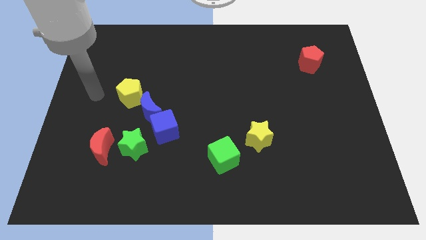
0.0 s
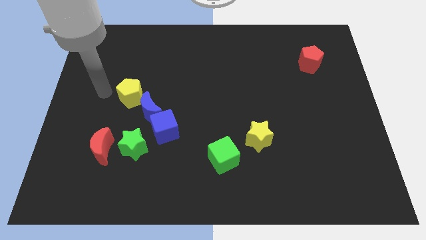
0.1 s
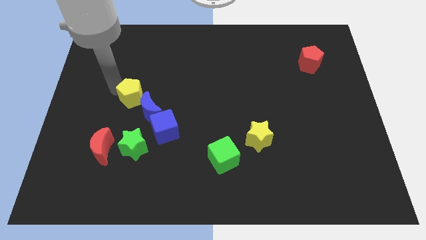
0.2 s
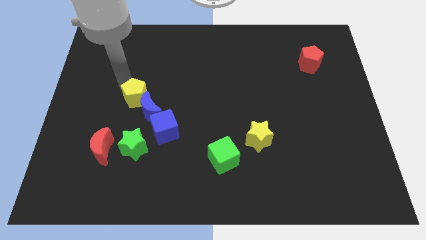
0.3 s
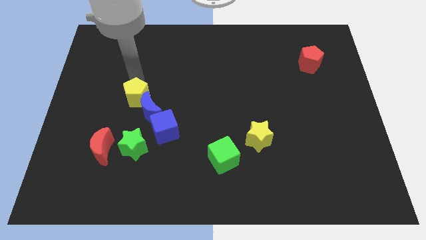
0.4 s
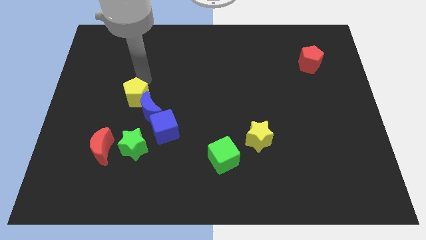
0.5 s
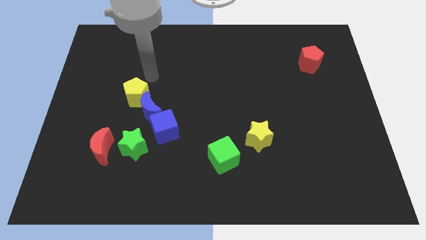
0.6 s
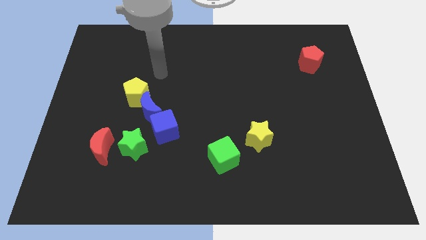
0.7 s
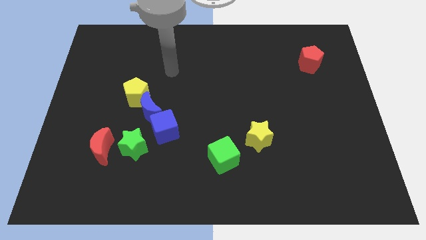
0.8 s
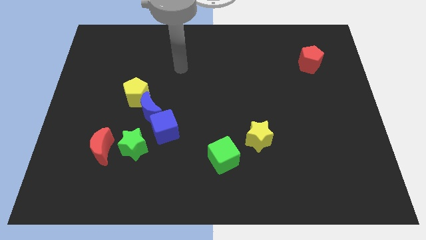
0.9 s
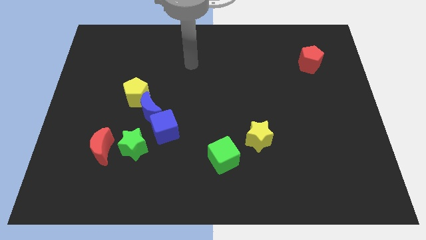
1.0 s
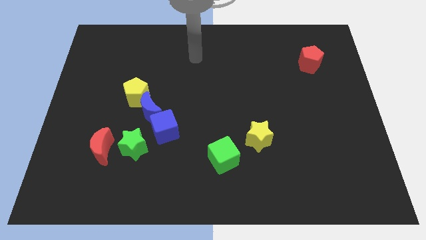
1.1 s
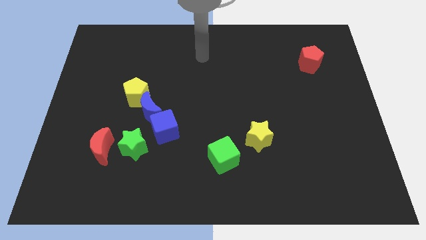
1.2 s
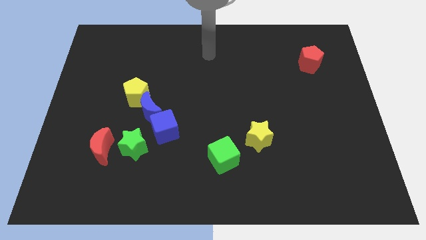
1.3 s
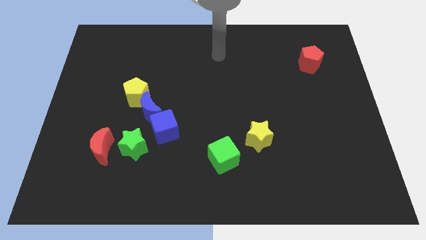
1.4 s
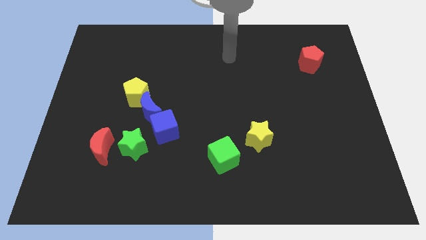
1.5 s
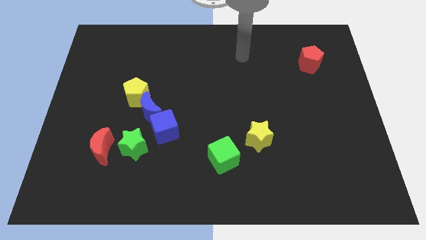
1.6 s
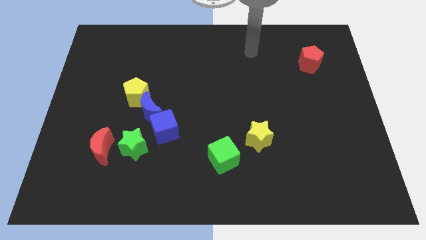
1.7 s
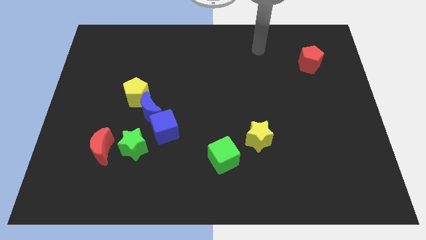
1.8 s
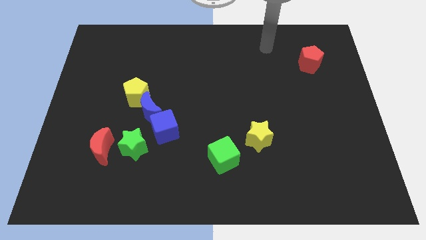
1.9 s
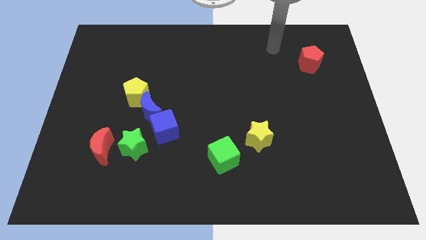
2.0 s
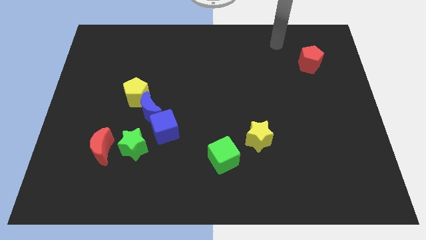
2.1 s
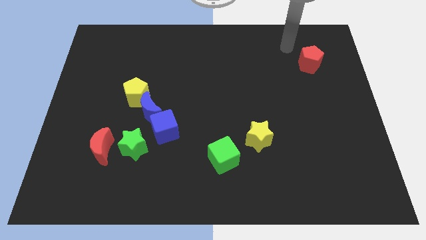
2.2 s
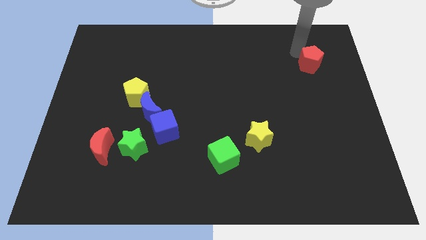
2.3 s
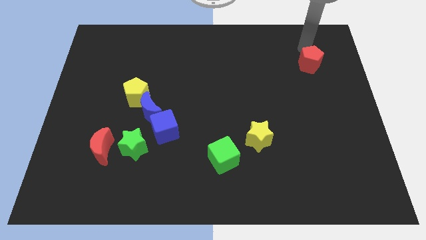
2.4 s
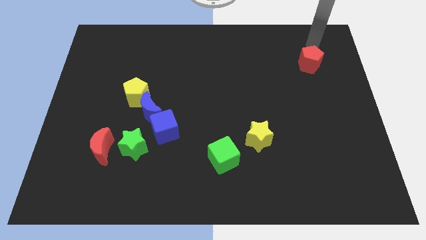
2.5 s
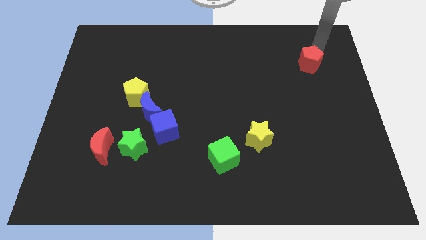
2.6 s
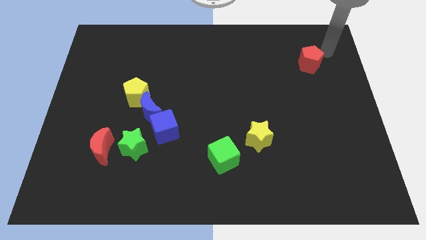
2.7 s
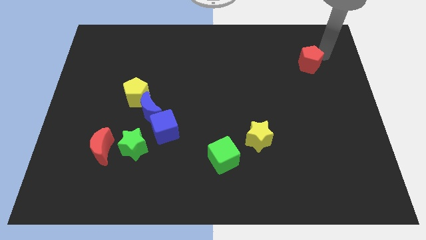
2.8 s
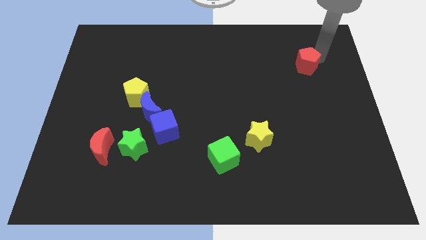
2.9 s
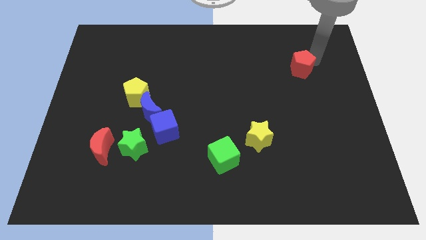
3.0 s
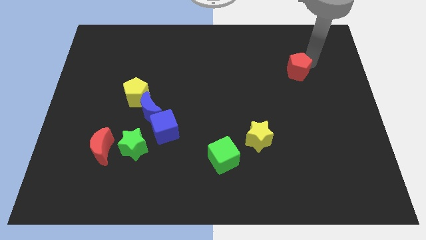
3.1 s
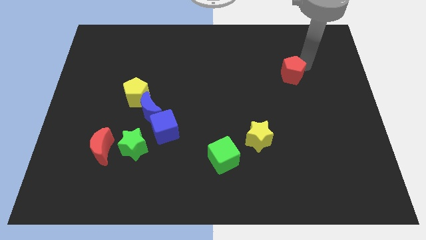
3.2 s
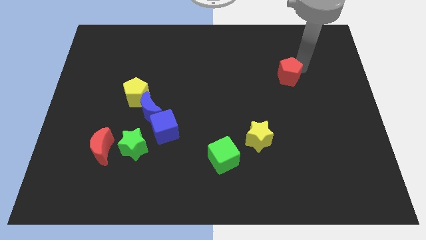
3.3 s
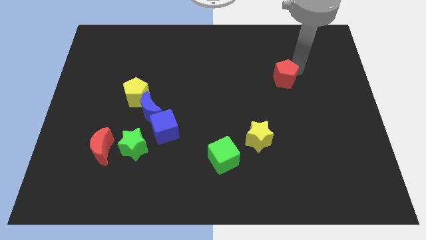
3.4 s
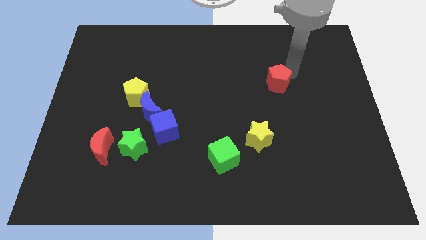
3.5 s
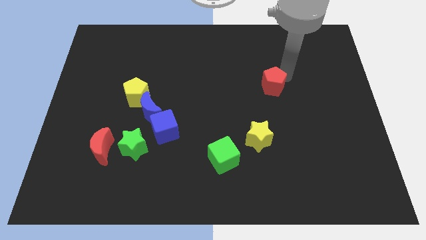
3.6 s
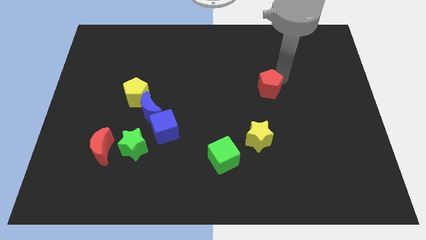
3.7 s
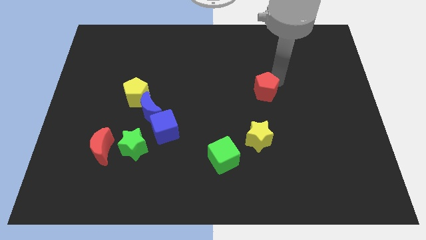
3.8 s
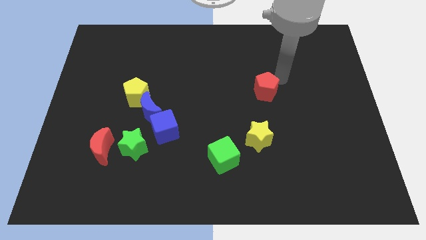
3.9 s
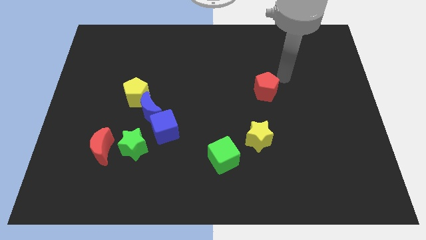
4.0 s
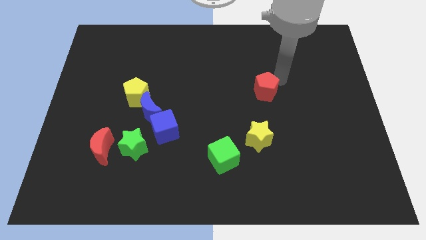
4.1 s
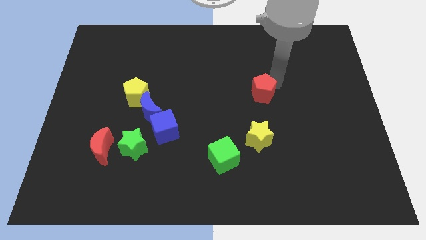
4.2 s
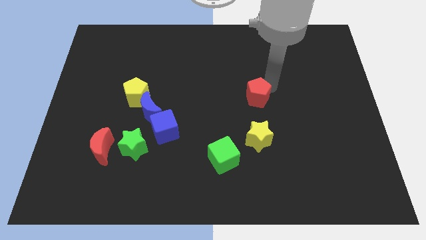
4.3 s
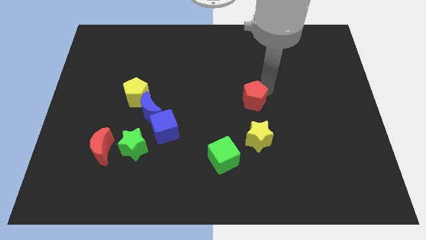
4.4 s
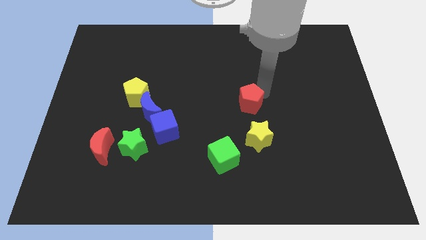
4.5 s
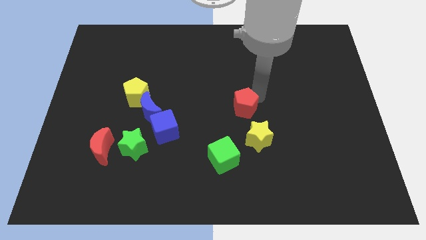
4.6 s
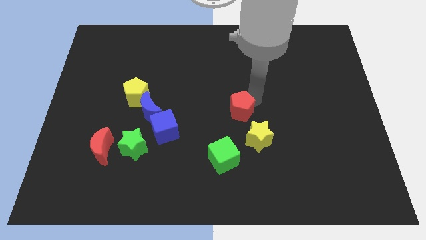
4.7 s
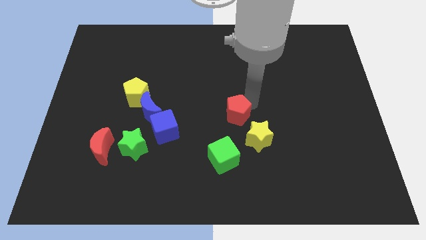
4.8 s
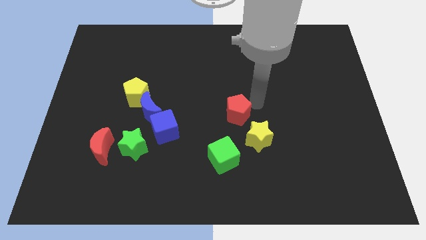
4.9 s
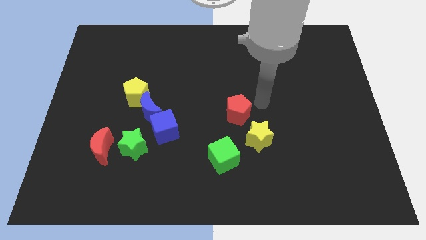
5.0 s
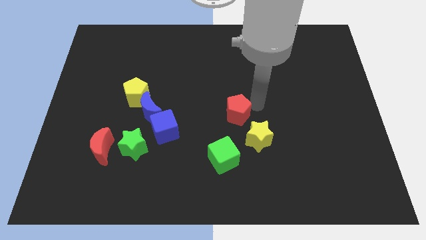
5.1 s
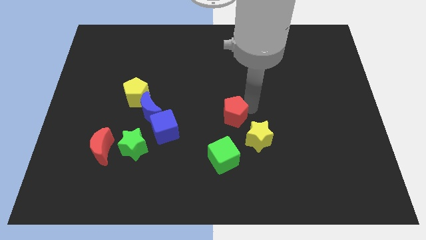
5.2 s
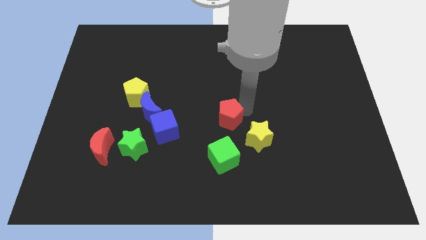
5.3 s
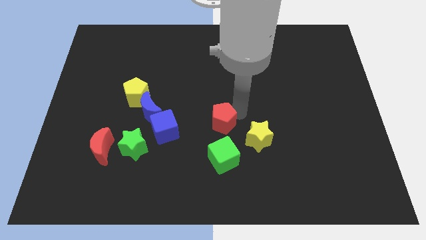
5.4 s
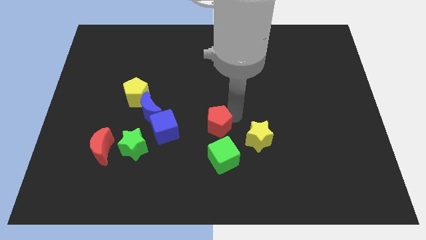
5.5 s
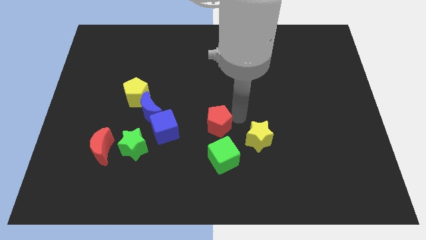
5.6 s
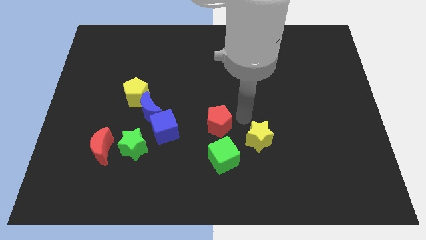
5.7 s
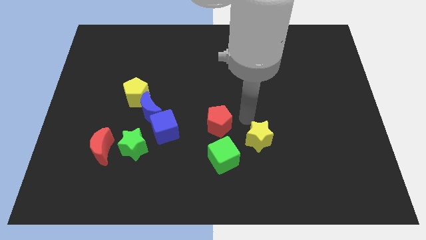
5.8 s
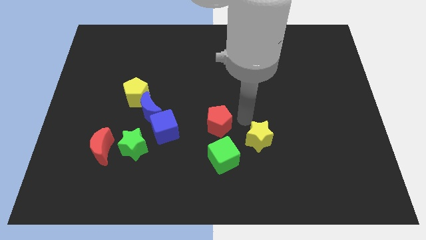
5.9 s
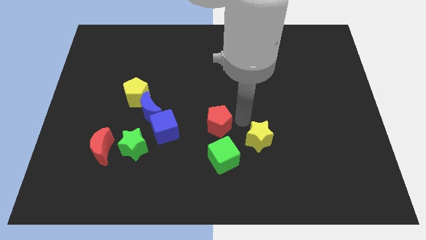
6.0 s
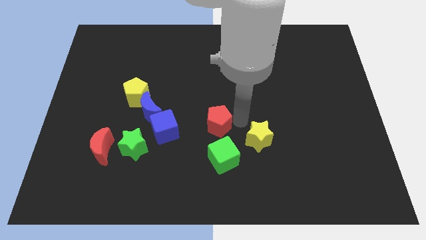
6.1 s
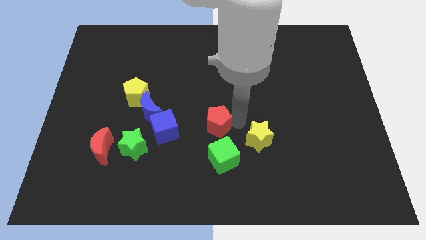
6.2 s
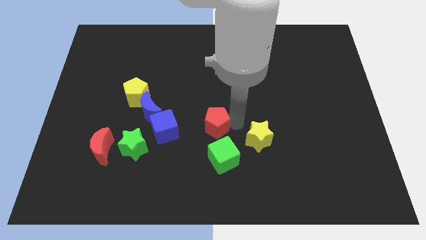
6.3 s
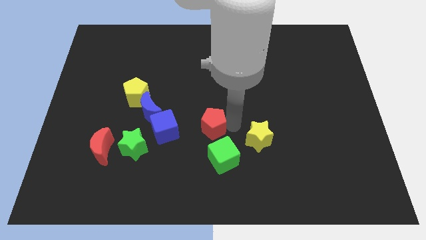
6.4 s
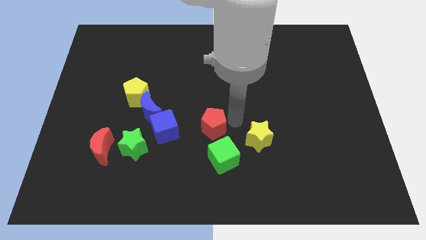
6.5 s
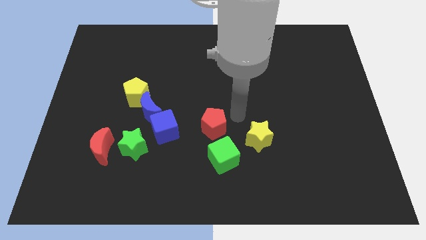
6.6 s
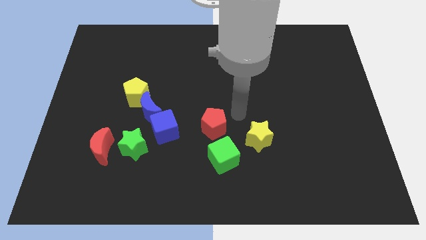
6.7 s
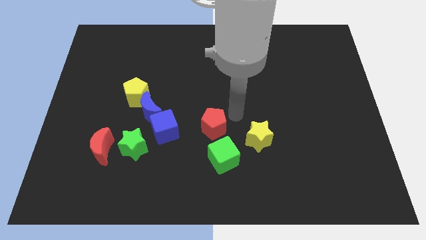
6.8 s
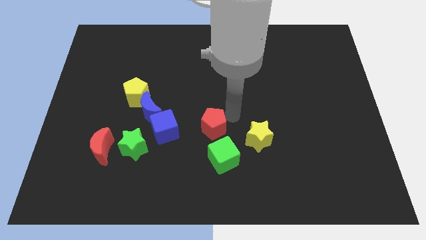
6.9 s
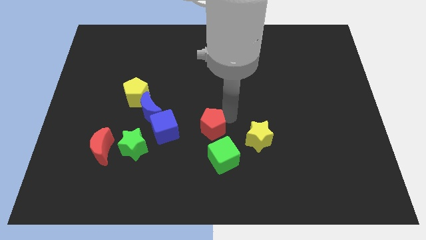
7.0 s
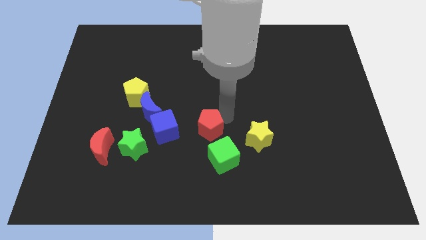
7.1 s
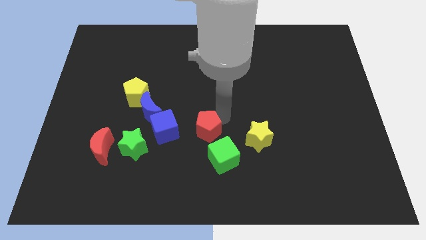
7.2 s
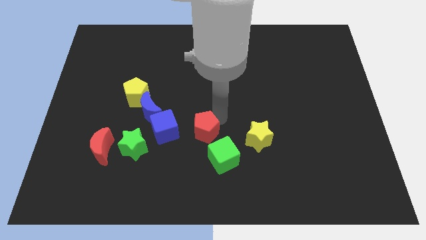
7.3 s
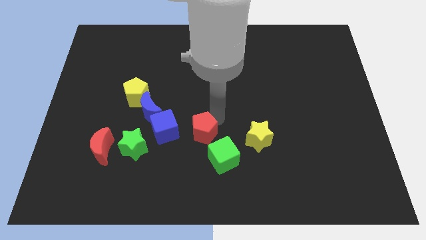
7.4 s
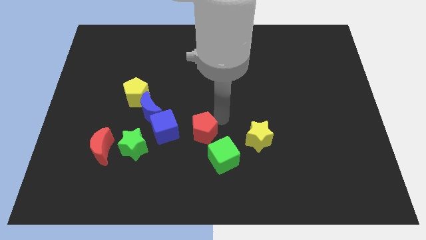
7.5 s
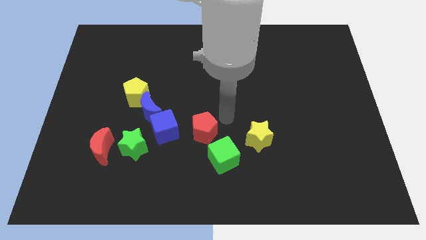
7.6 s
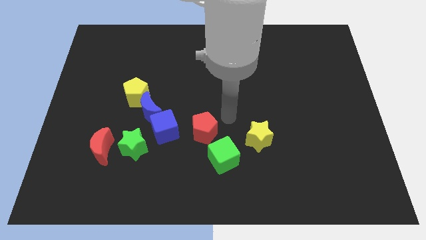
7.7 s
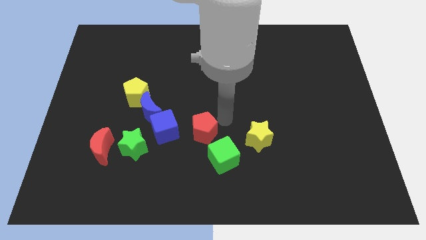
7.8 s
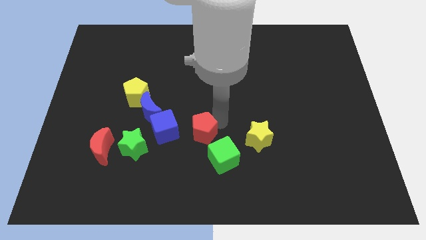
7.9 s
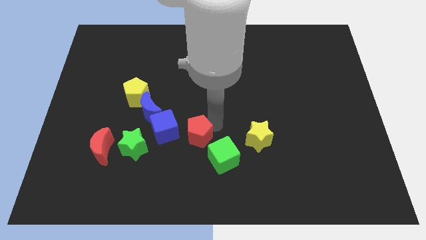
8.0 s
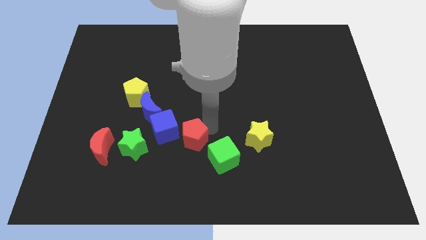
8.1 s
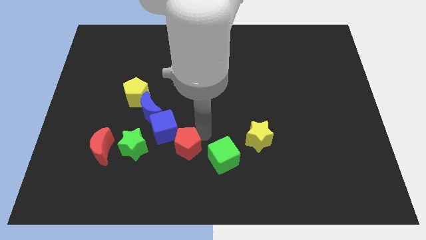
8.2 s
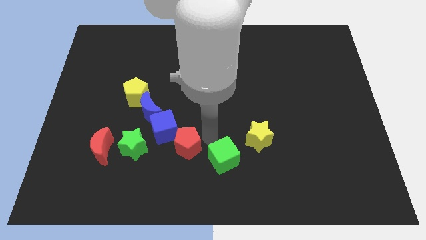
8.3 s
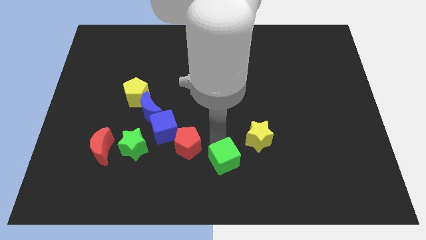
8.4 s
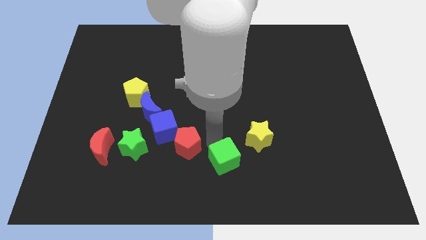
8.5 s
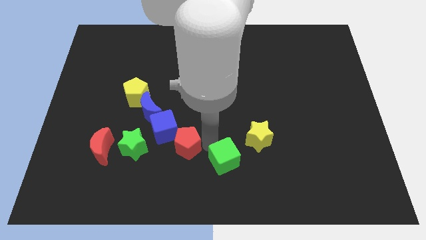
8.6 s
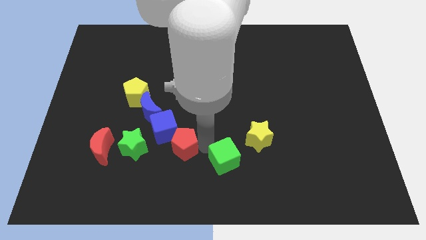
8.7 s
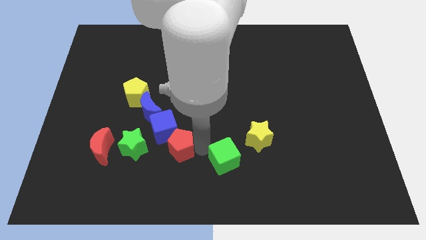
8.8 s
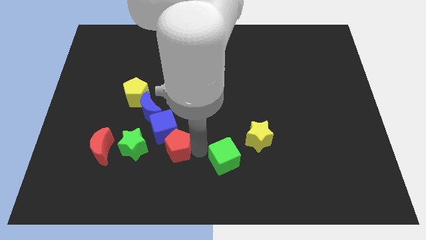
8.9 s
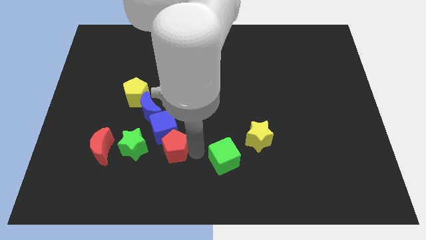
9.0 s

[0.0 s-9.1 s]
put the red pentagon to the right side of the red moon
